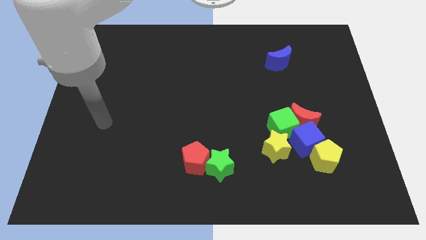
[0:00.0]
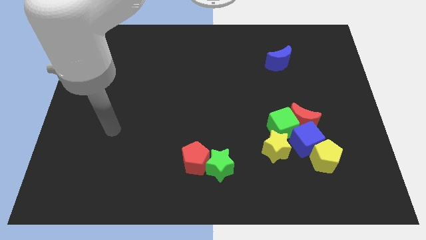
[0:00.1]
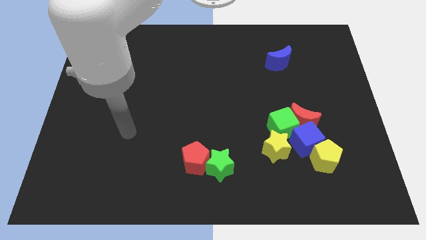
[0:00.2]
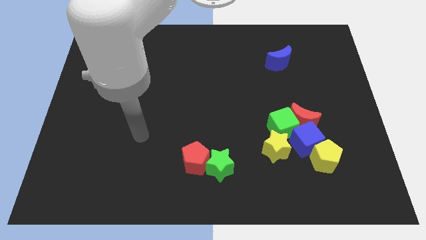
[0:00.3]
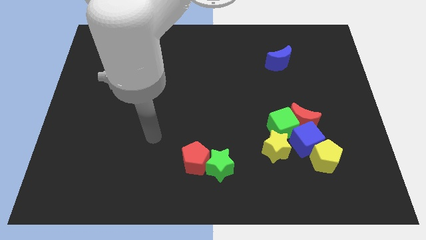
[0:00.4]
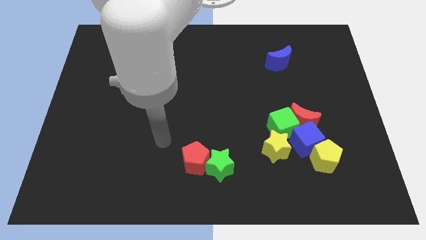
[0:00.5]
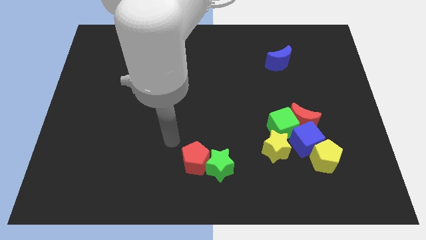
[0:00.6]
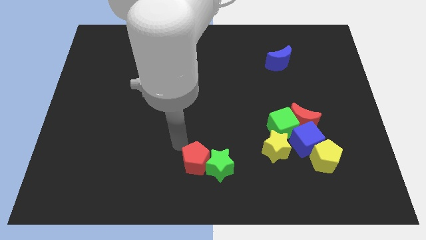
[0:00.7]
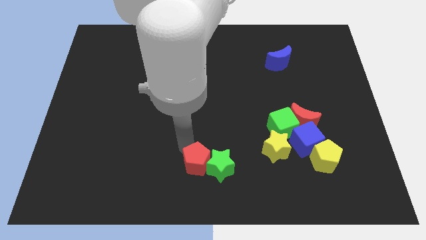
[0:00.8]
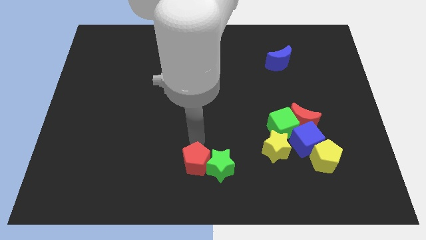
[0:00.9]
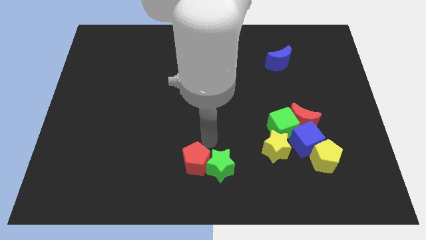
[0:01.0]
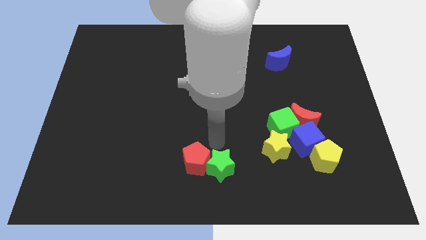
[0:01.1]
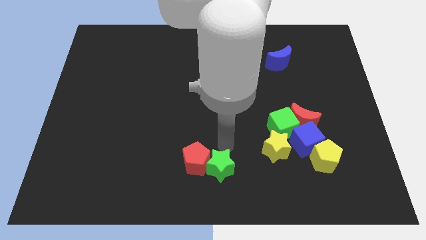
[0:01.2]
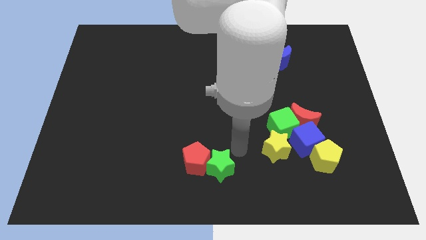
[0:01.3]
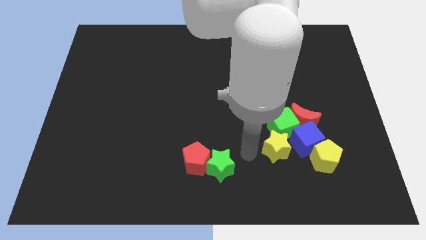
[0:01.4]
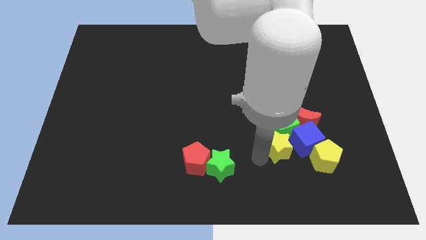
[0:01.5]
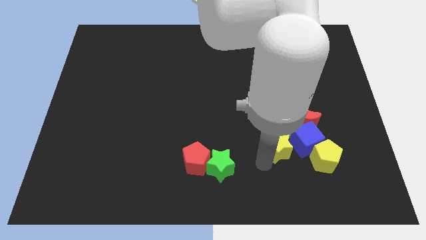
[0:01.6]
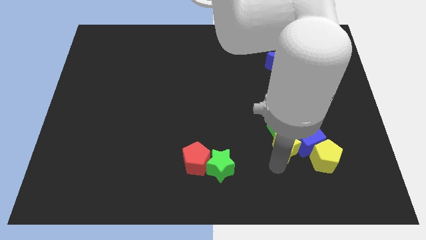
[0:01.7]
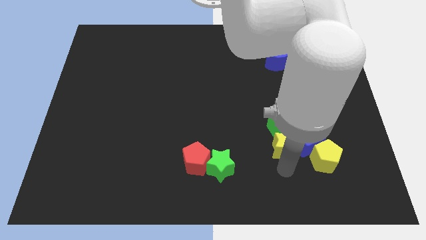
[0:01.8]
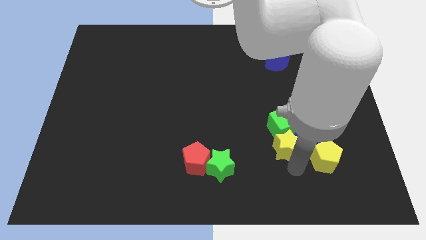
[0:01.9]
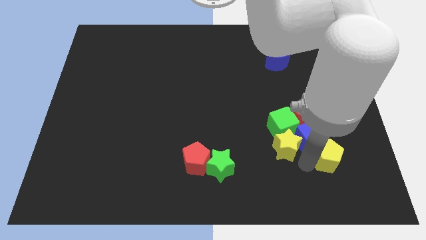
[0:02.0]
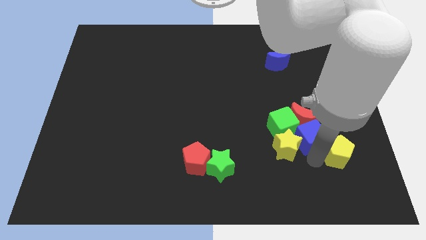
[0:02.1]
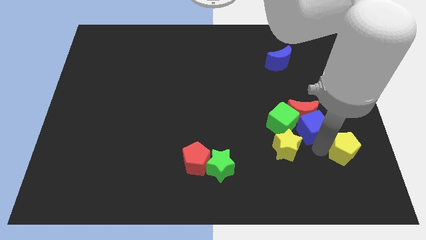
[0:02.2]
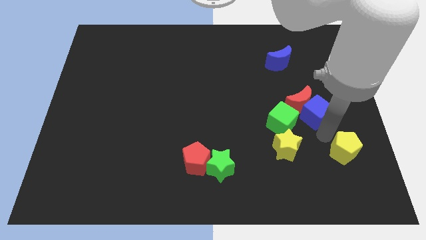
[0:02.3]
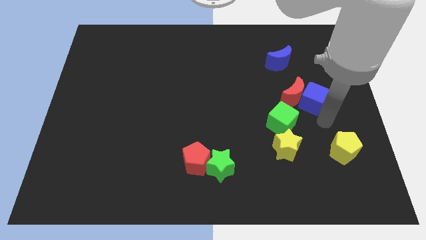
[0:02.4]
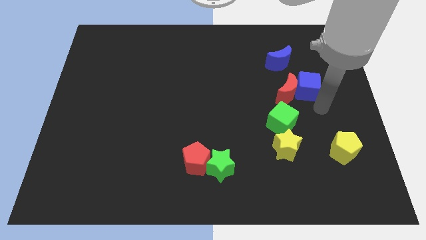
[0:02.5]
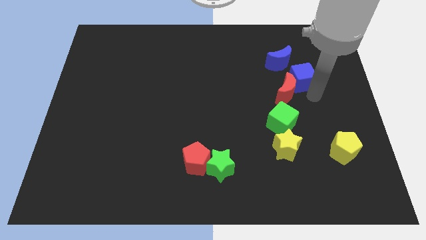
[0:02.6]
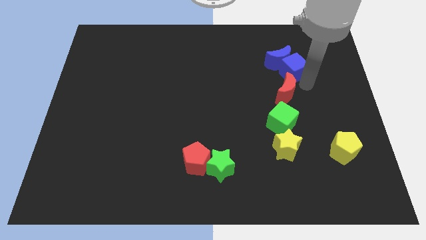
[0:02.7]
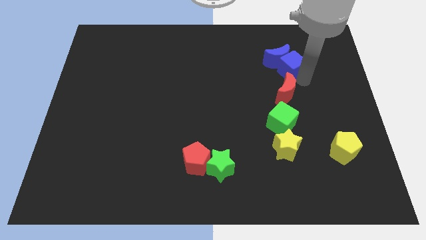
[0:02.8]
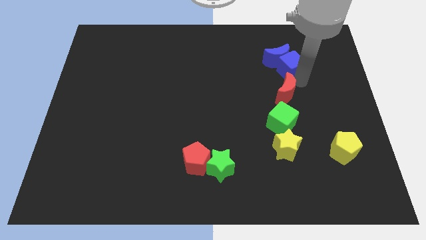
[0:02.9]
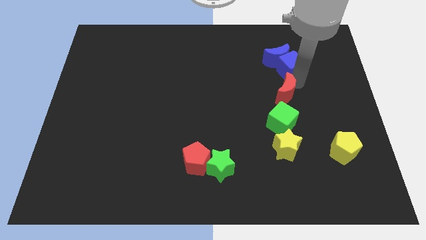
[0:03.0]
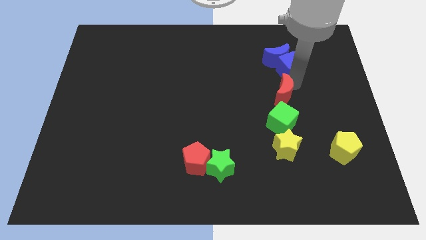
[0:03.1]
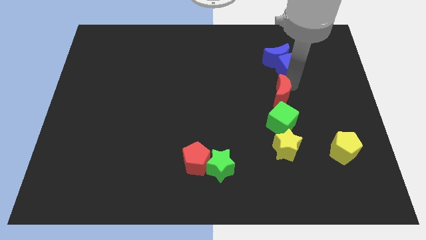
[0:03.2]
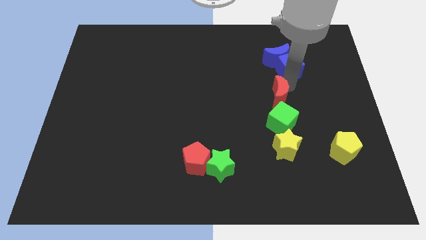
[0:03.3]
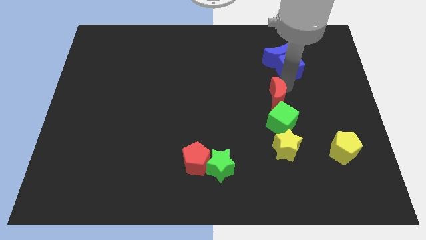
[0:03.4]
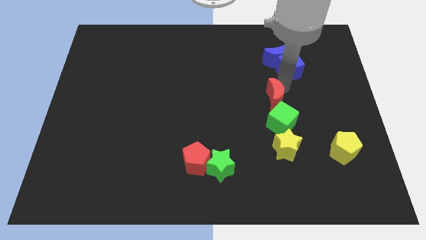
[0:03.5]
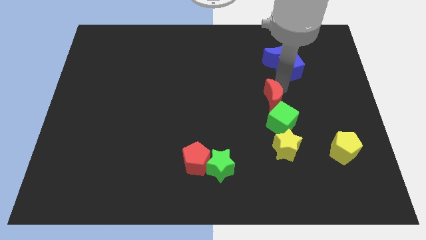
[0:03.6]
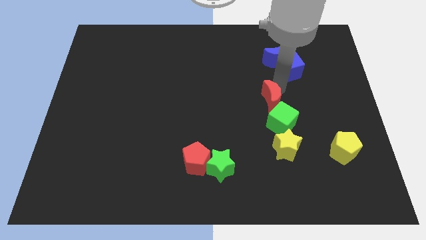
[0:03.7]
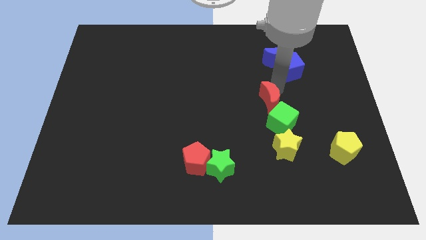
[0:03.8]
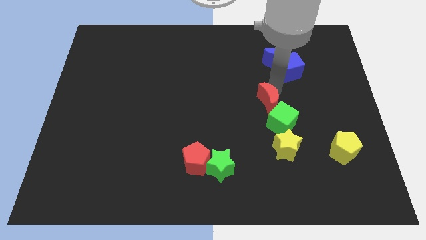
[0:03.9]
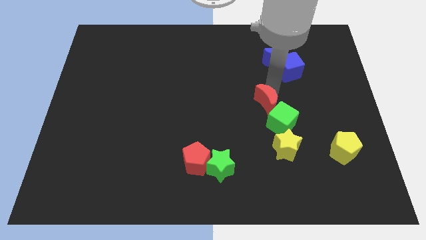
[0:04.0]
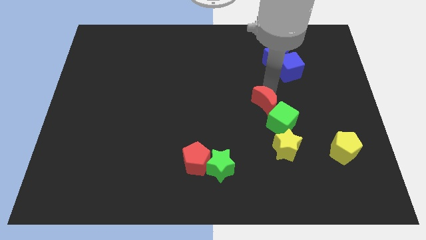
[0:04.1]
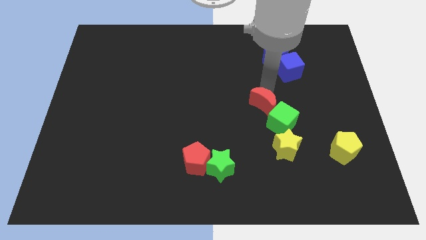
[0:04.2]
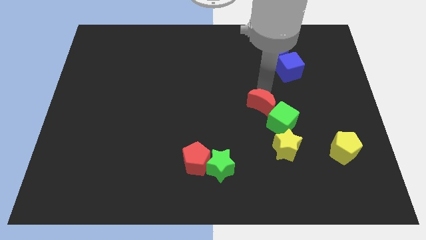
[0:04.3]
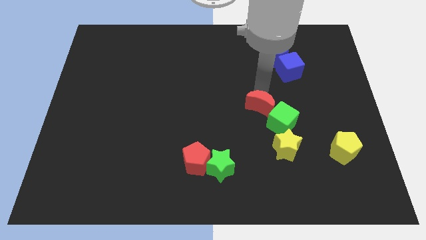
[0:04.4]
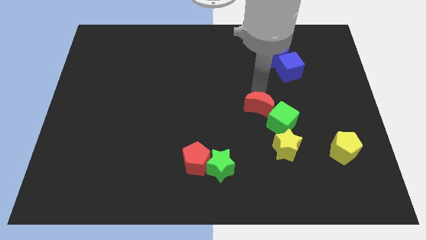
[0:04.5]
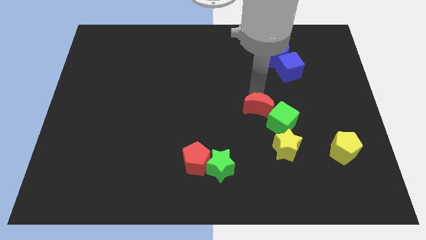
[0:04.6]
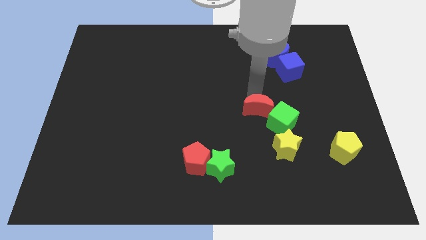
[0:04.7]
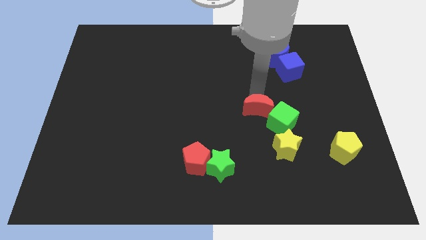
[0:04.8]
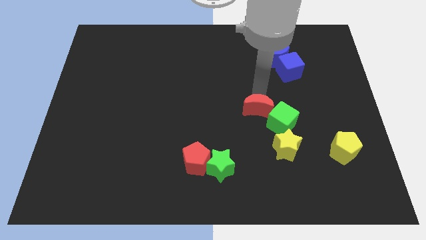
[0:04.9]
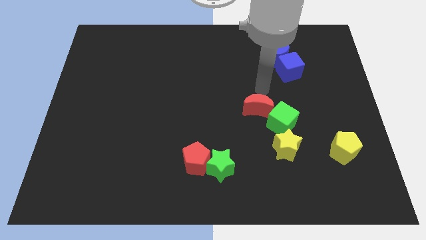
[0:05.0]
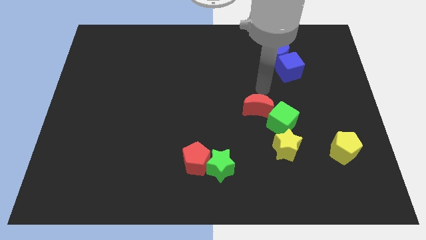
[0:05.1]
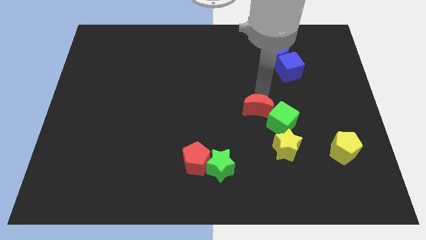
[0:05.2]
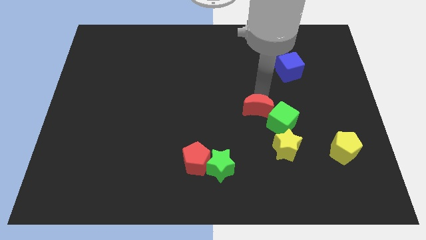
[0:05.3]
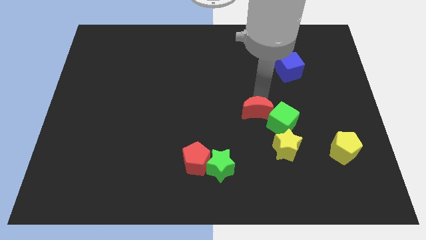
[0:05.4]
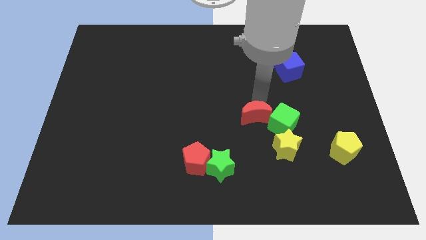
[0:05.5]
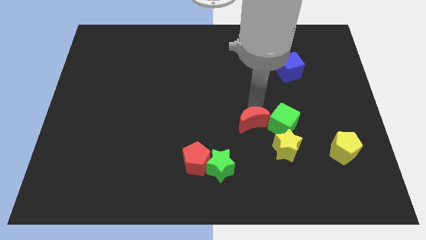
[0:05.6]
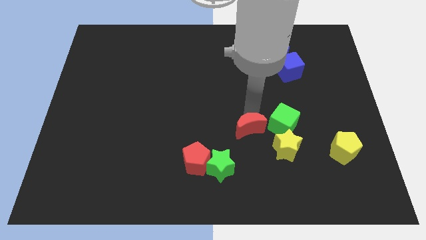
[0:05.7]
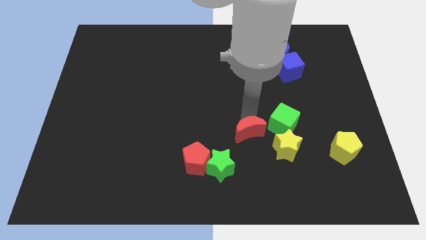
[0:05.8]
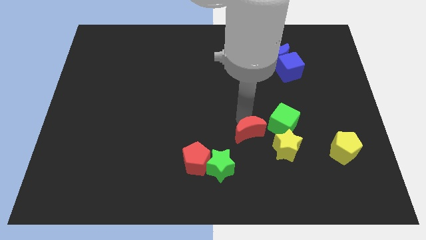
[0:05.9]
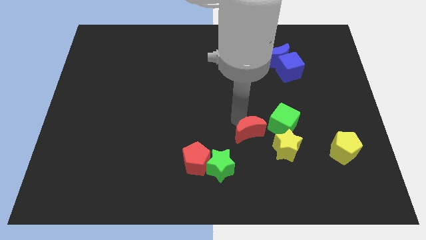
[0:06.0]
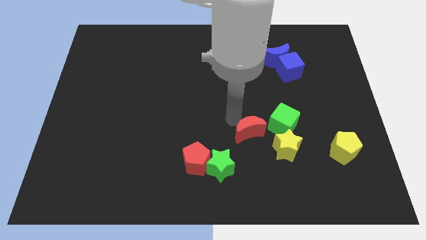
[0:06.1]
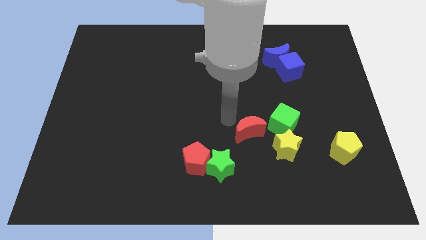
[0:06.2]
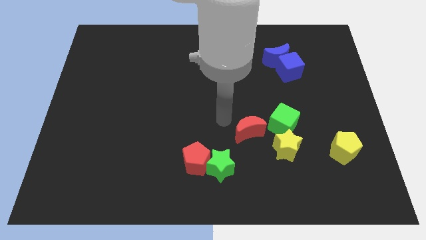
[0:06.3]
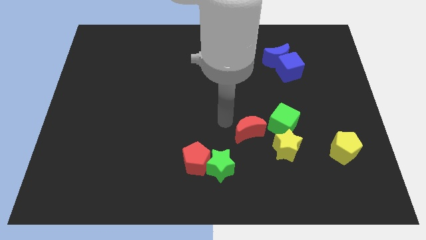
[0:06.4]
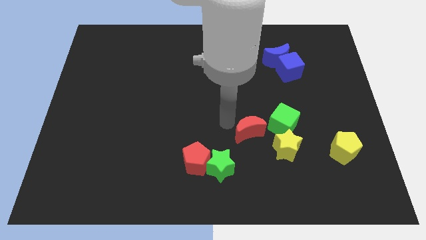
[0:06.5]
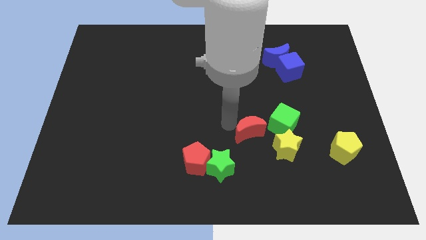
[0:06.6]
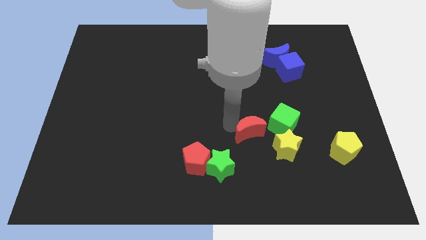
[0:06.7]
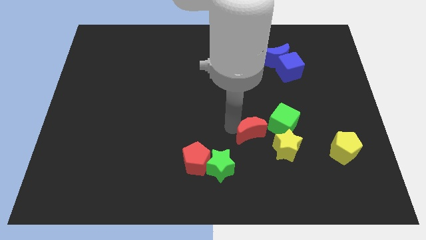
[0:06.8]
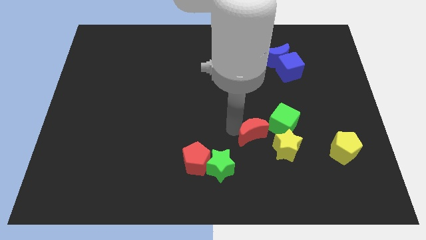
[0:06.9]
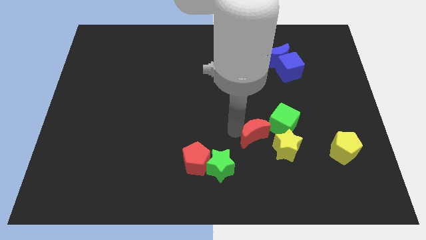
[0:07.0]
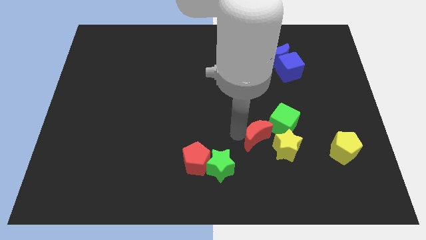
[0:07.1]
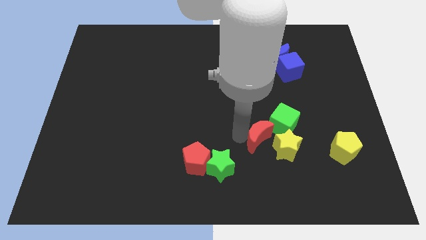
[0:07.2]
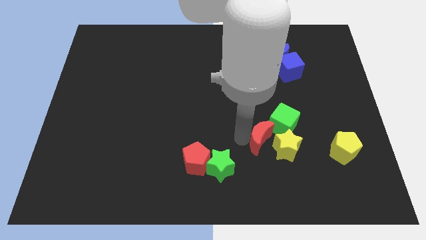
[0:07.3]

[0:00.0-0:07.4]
move the red moon towards the yellow star
